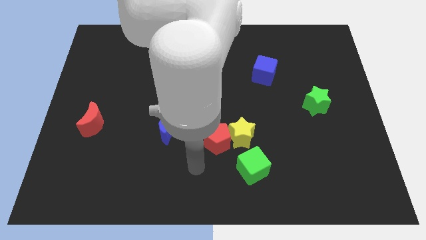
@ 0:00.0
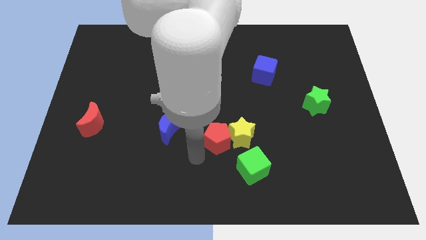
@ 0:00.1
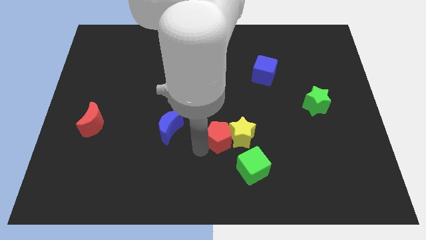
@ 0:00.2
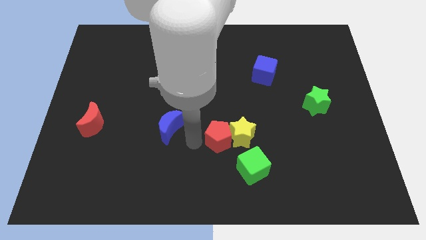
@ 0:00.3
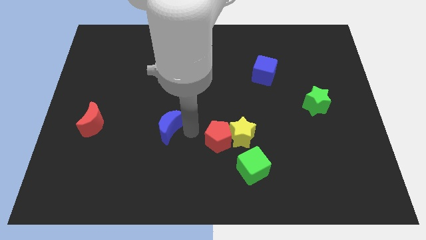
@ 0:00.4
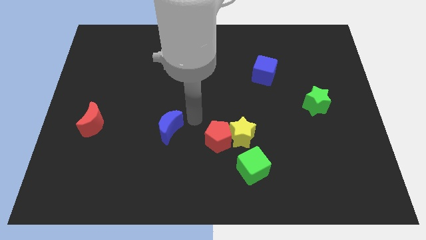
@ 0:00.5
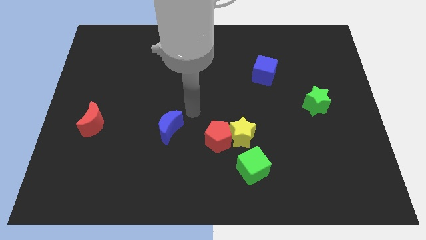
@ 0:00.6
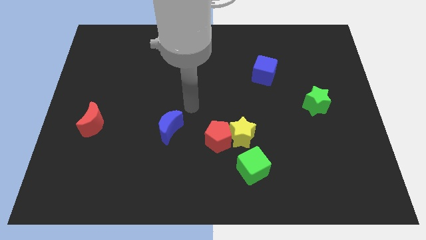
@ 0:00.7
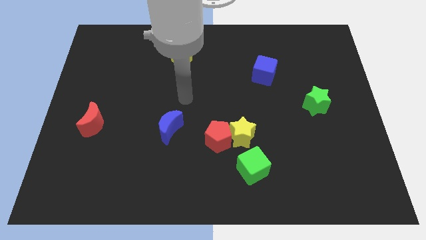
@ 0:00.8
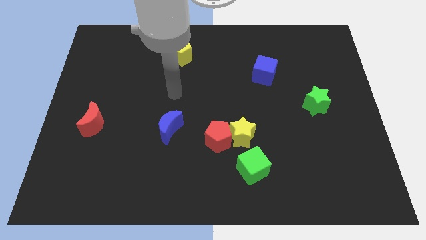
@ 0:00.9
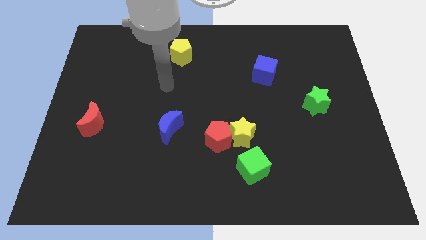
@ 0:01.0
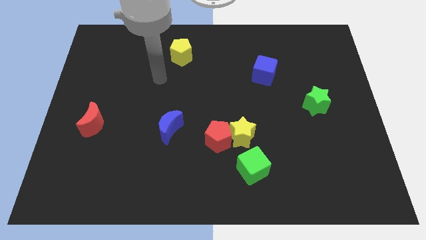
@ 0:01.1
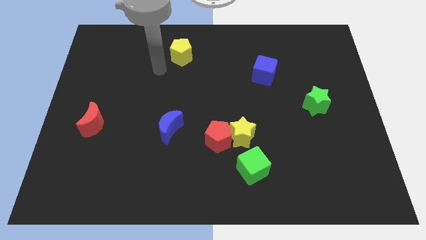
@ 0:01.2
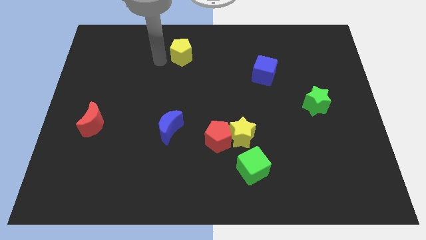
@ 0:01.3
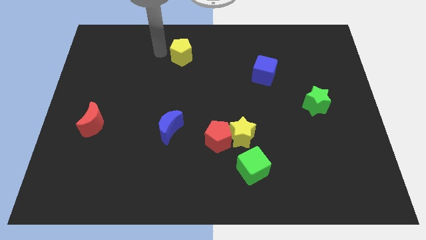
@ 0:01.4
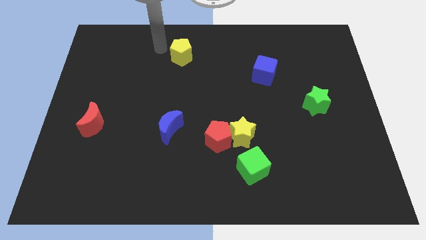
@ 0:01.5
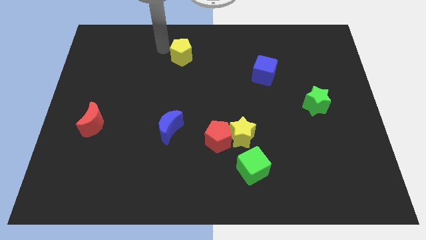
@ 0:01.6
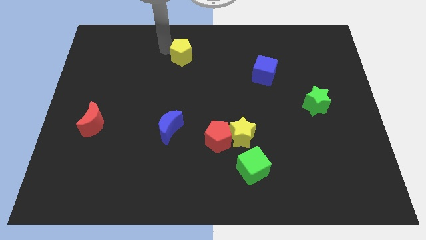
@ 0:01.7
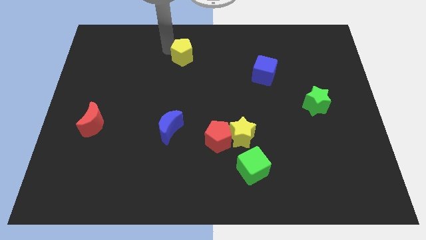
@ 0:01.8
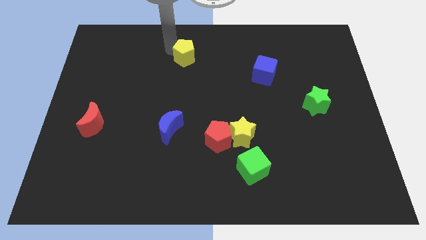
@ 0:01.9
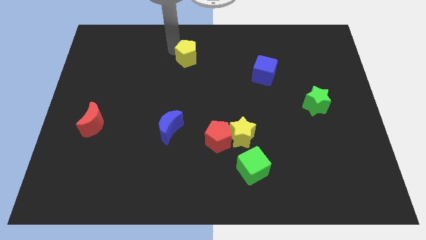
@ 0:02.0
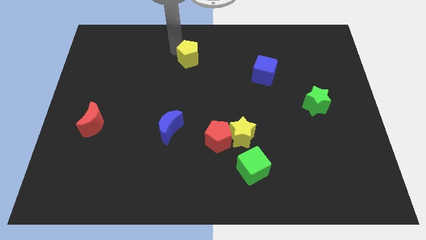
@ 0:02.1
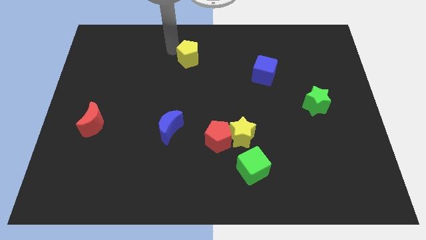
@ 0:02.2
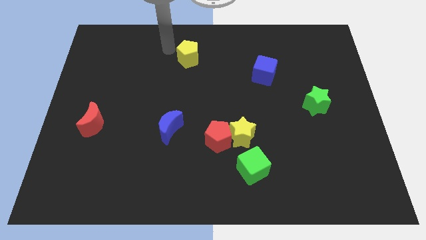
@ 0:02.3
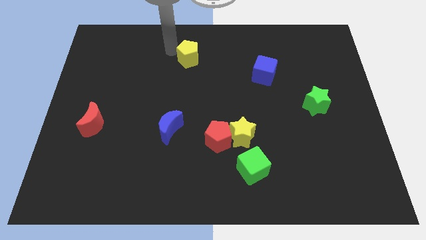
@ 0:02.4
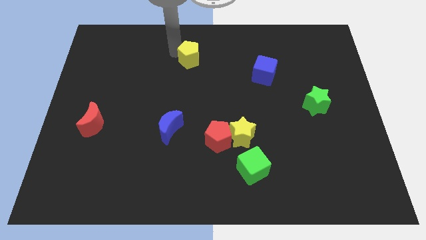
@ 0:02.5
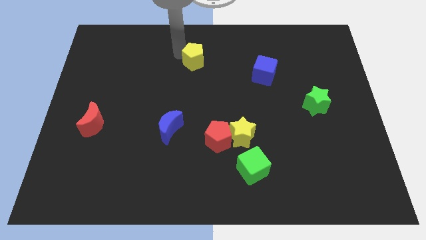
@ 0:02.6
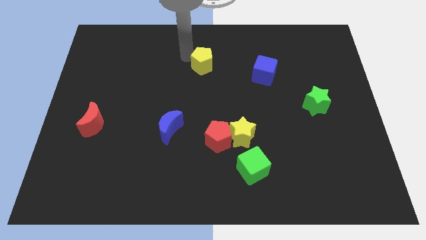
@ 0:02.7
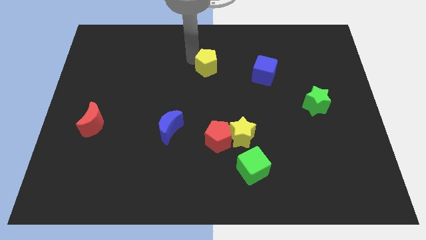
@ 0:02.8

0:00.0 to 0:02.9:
push the yellow pentagon downwards and to the right diagonally a little bit

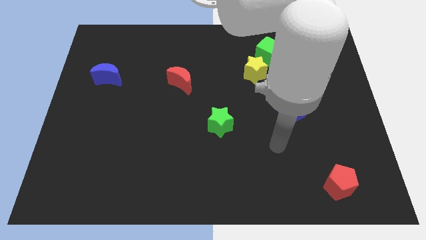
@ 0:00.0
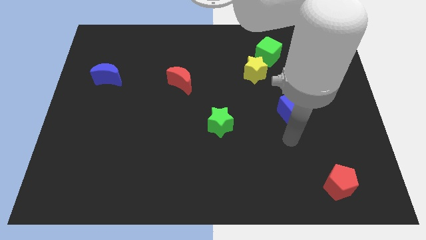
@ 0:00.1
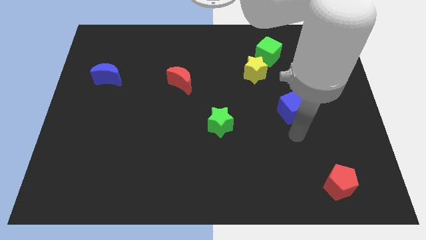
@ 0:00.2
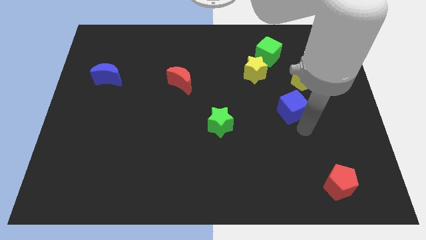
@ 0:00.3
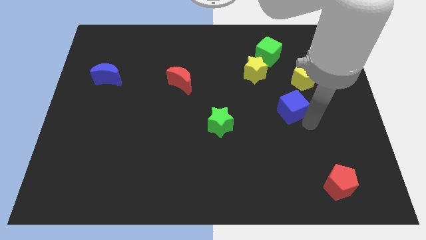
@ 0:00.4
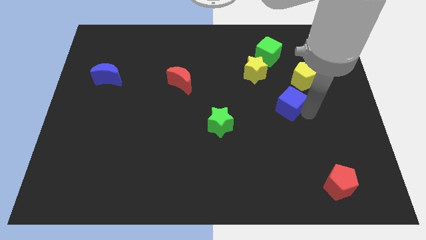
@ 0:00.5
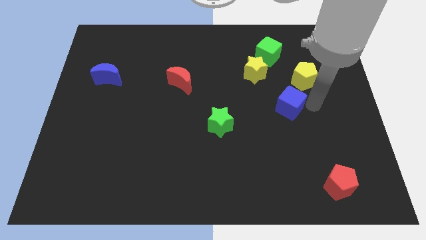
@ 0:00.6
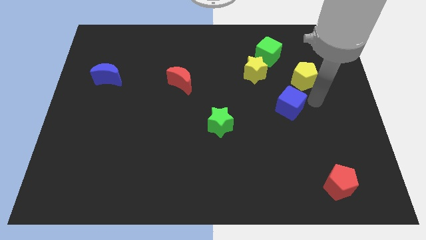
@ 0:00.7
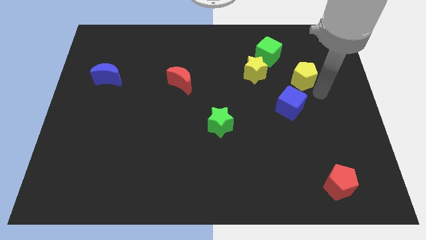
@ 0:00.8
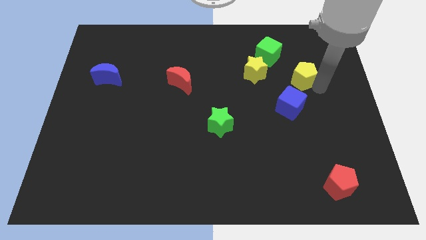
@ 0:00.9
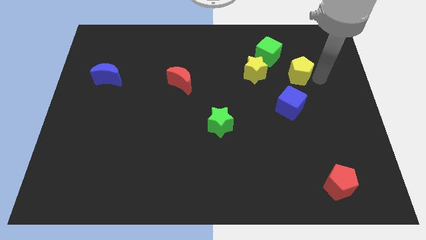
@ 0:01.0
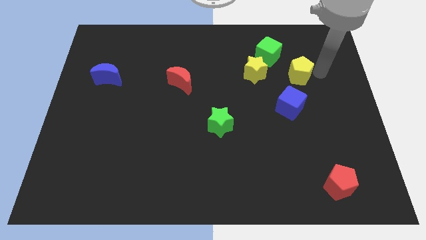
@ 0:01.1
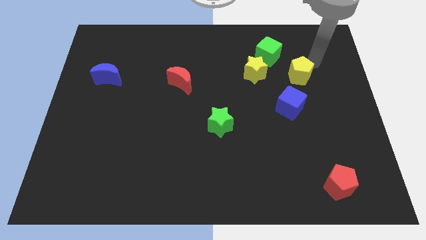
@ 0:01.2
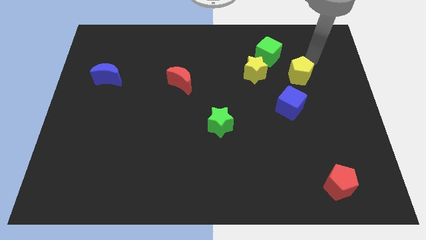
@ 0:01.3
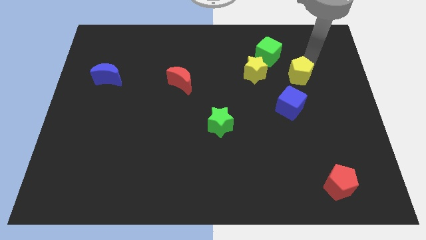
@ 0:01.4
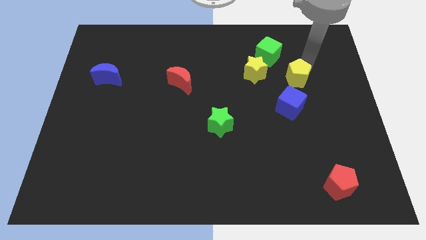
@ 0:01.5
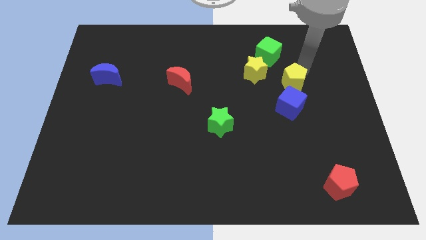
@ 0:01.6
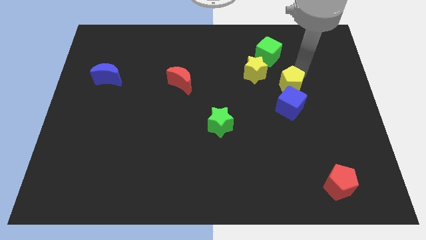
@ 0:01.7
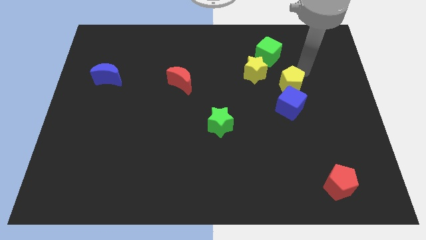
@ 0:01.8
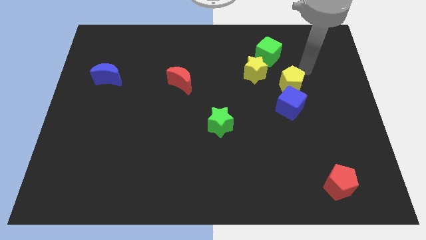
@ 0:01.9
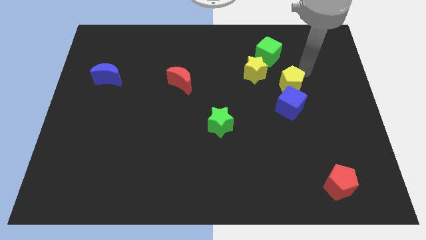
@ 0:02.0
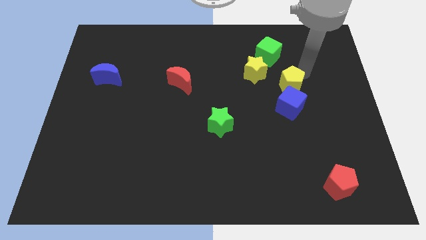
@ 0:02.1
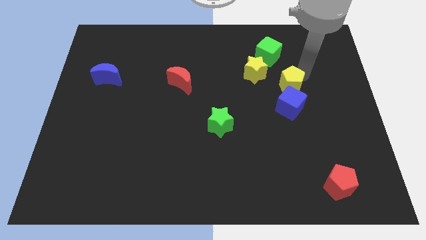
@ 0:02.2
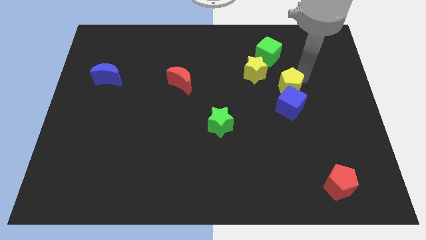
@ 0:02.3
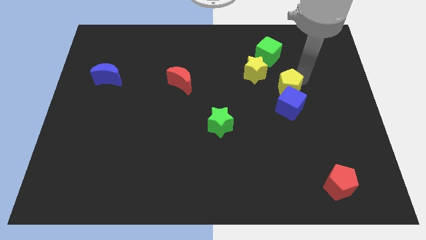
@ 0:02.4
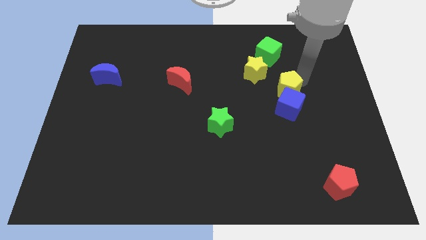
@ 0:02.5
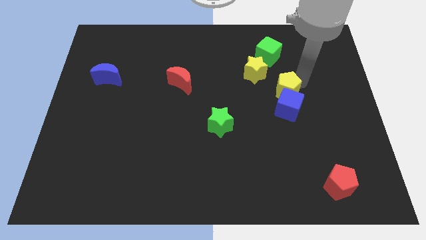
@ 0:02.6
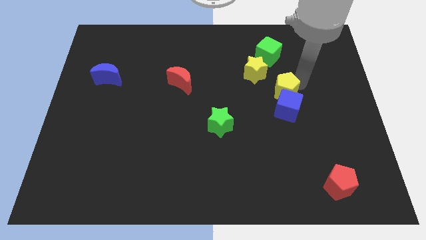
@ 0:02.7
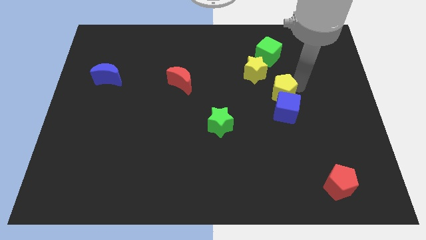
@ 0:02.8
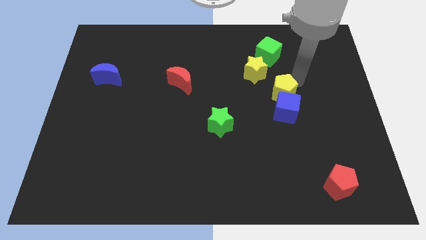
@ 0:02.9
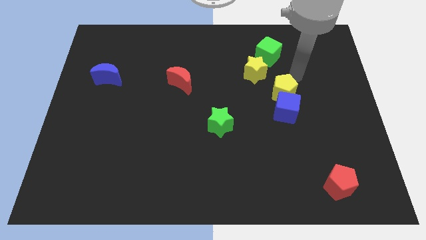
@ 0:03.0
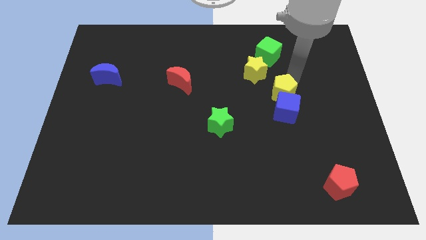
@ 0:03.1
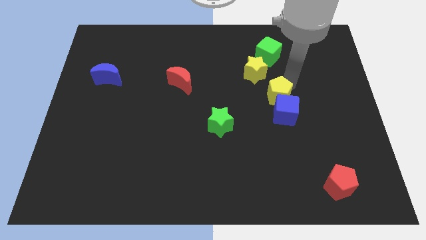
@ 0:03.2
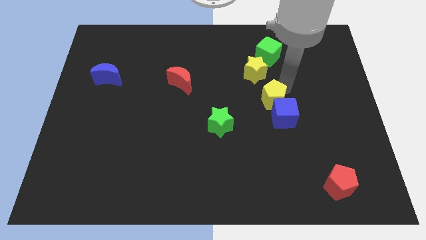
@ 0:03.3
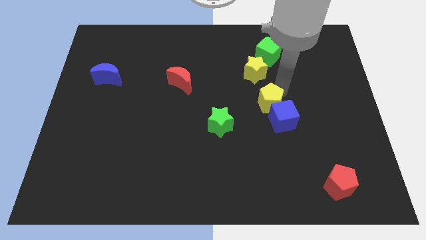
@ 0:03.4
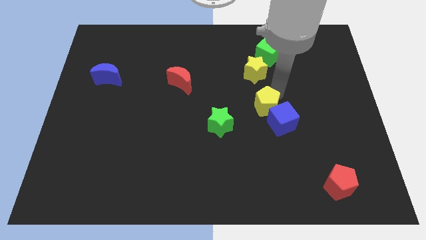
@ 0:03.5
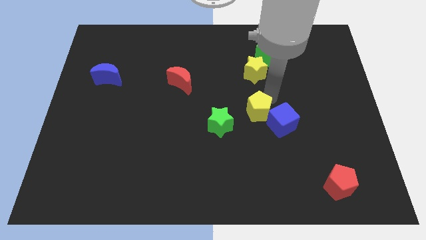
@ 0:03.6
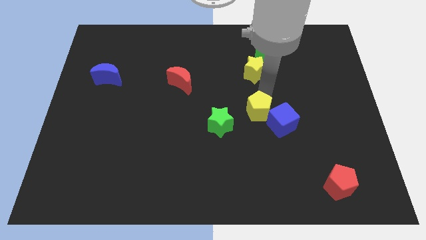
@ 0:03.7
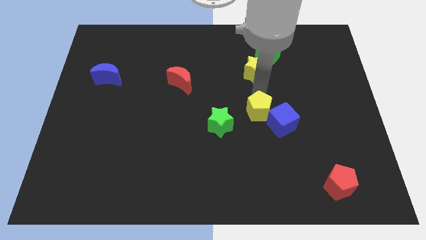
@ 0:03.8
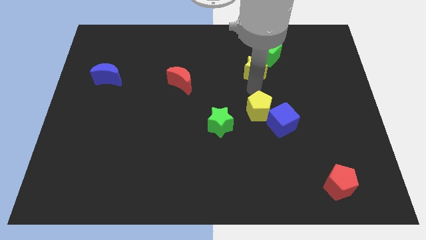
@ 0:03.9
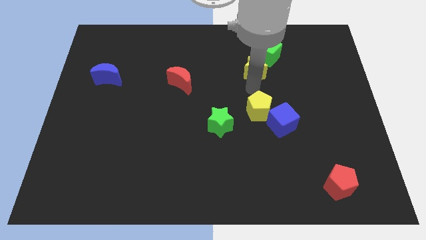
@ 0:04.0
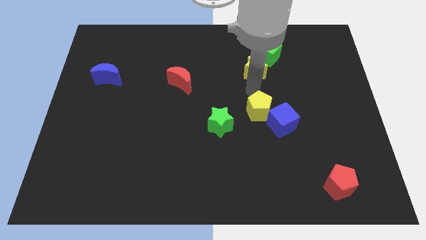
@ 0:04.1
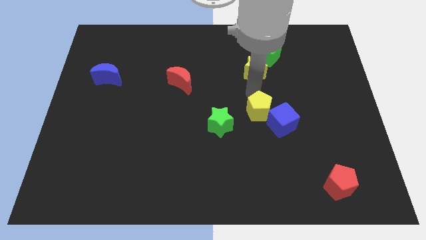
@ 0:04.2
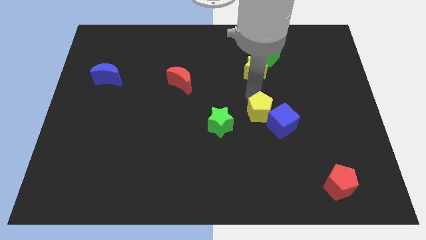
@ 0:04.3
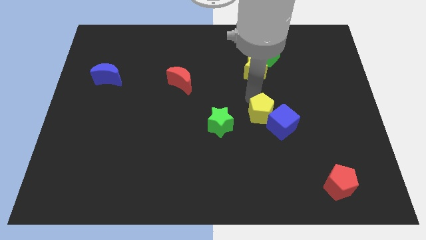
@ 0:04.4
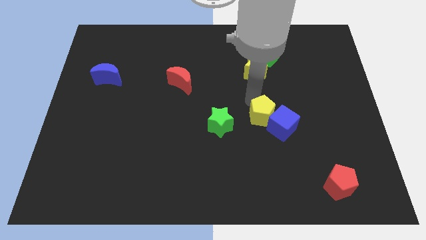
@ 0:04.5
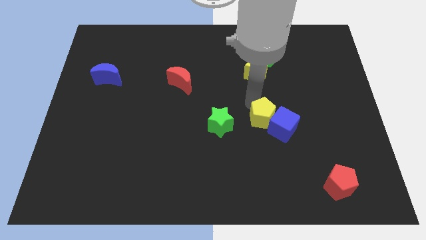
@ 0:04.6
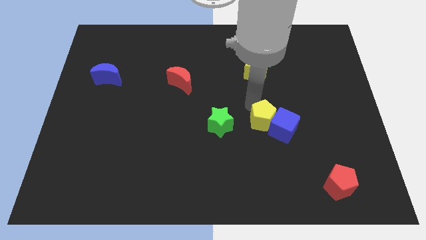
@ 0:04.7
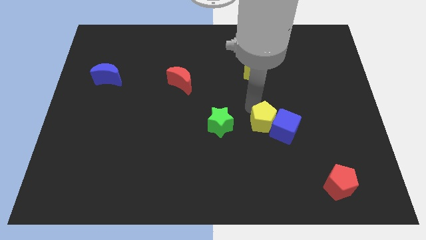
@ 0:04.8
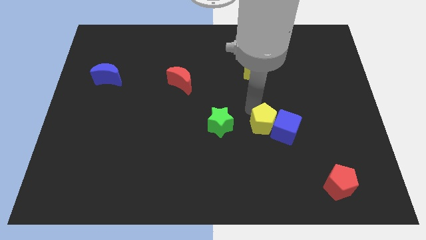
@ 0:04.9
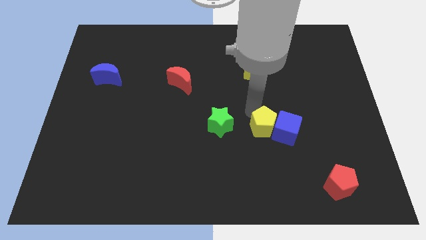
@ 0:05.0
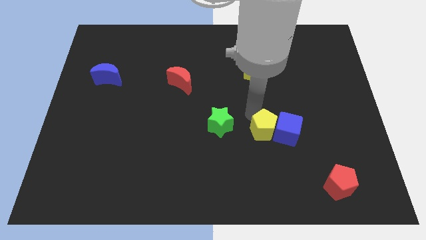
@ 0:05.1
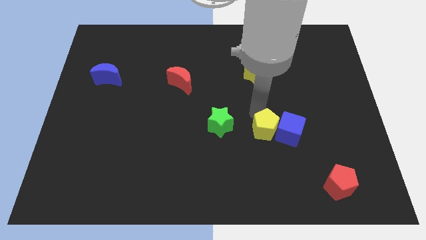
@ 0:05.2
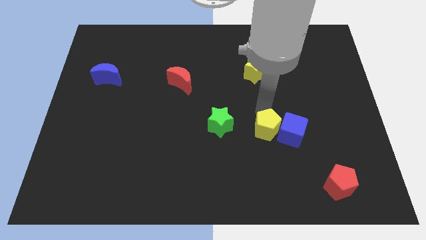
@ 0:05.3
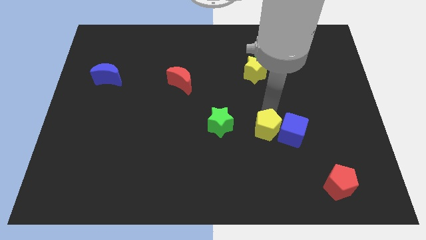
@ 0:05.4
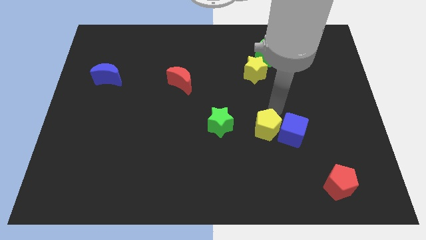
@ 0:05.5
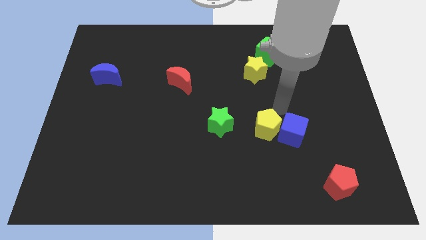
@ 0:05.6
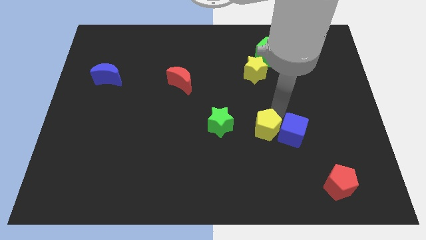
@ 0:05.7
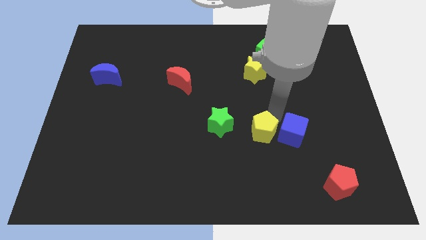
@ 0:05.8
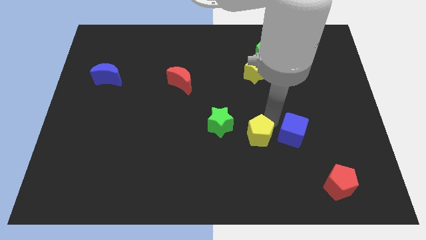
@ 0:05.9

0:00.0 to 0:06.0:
move the yellow pentagon down and to the left diagonally
